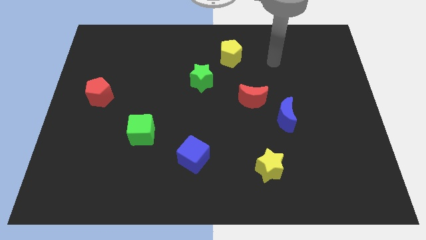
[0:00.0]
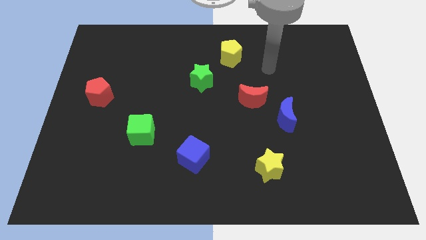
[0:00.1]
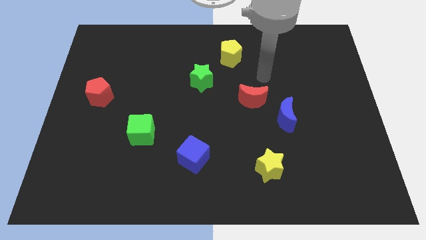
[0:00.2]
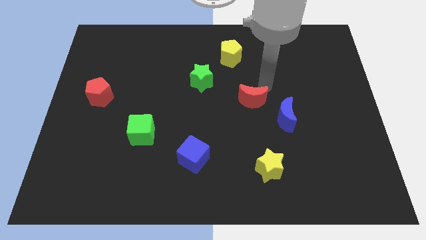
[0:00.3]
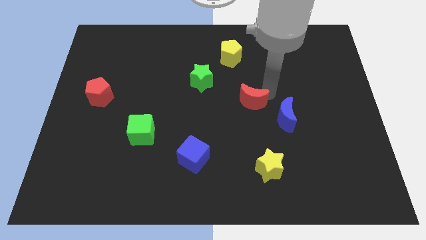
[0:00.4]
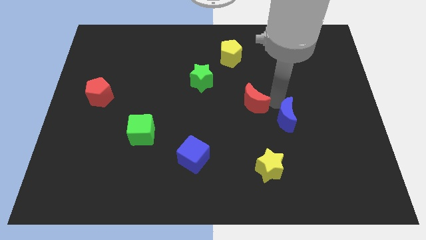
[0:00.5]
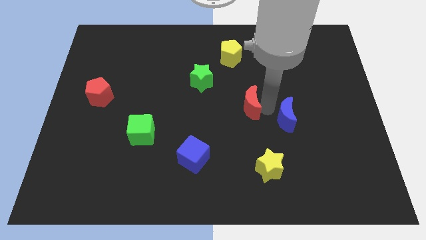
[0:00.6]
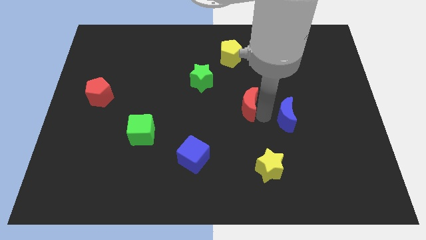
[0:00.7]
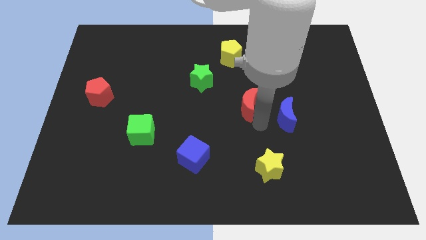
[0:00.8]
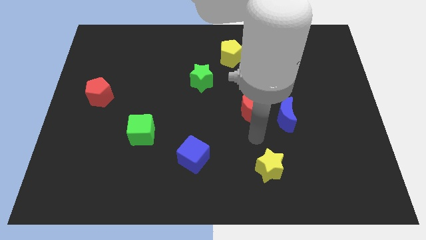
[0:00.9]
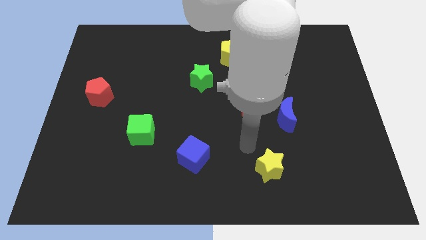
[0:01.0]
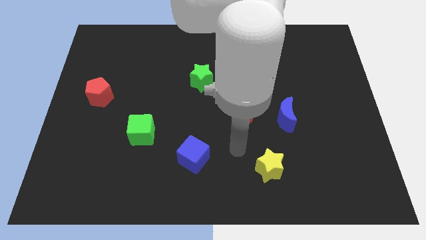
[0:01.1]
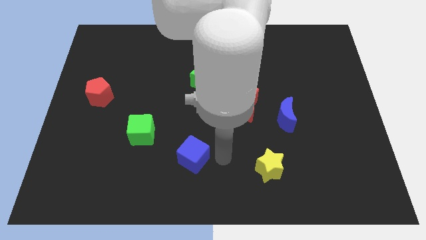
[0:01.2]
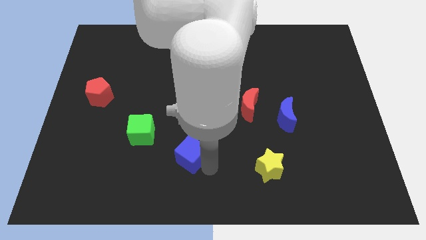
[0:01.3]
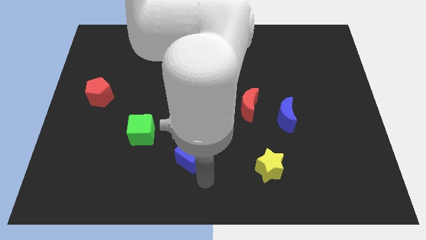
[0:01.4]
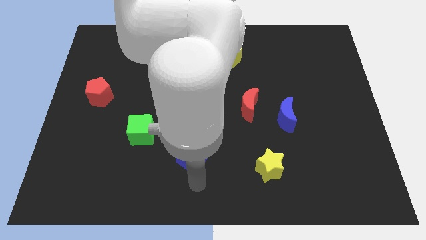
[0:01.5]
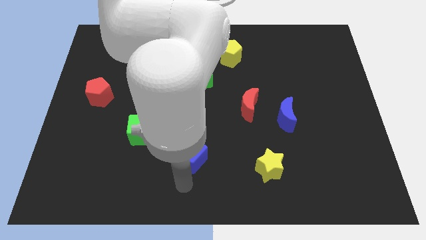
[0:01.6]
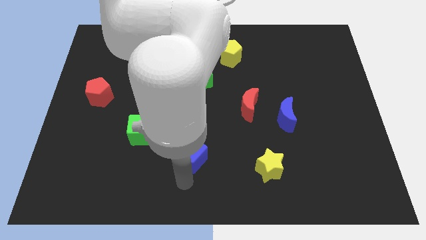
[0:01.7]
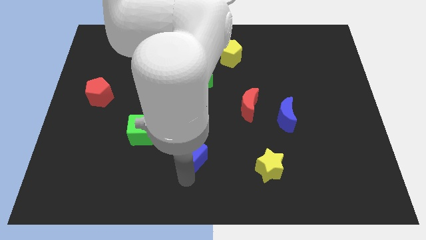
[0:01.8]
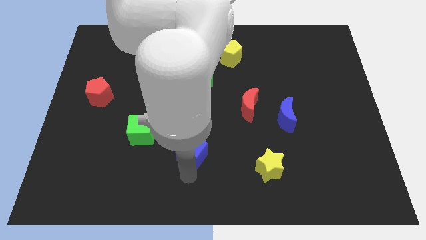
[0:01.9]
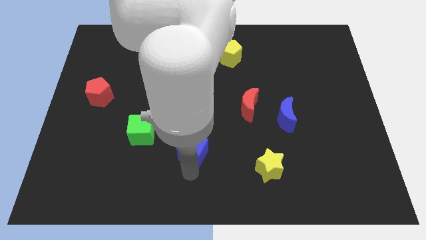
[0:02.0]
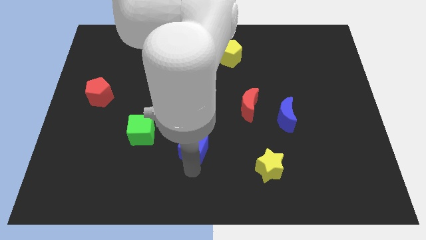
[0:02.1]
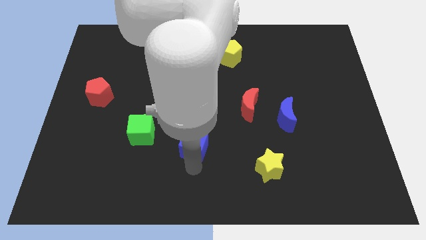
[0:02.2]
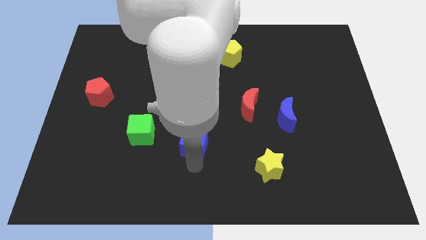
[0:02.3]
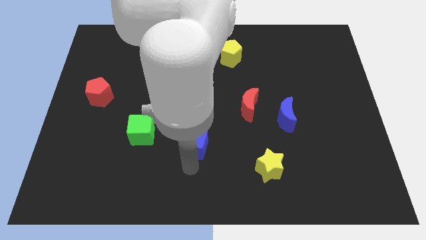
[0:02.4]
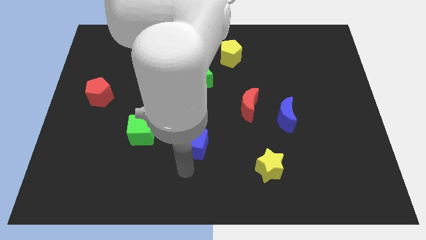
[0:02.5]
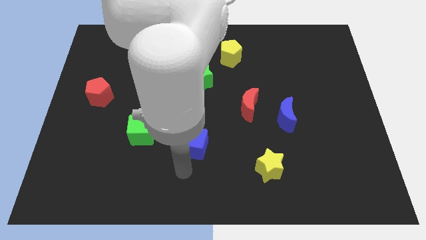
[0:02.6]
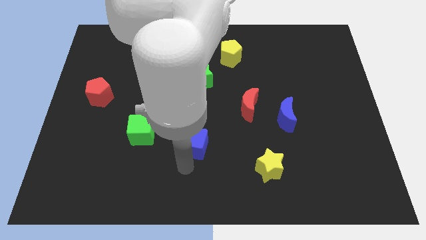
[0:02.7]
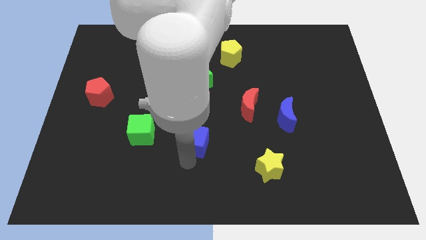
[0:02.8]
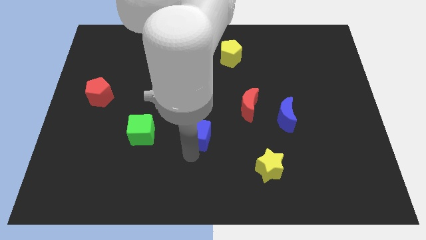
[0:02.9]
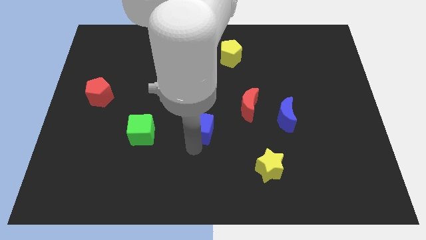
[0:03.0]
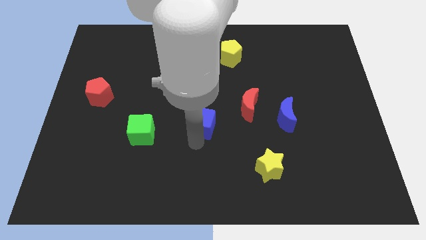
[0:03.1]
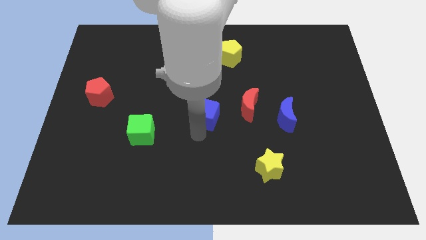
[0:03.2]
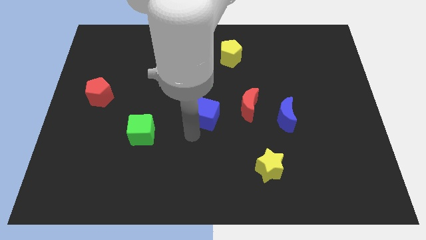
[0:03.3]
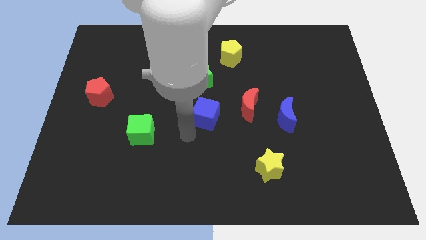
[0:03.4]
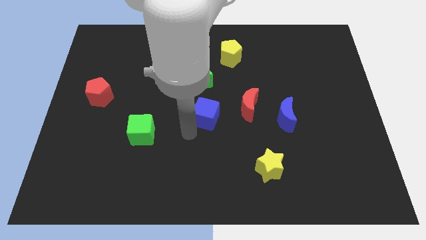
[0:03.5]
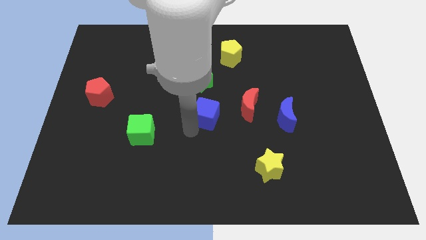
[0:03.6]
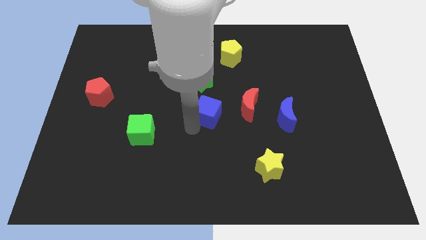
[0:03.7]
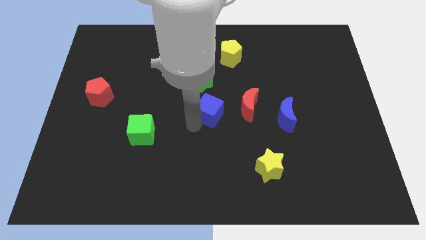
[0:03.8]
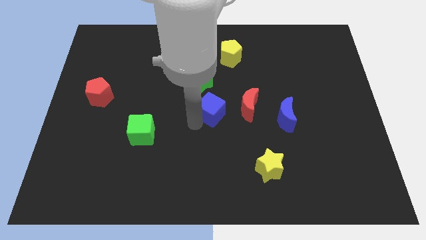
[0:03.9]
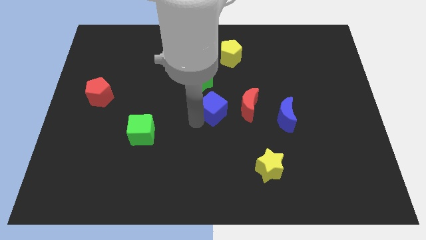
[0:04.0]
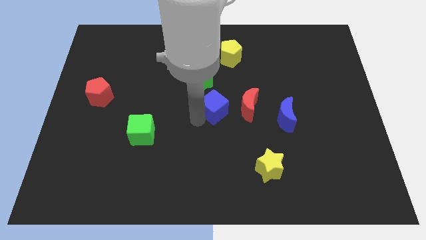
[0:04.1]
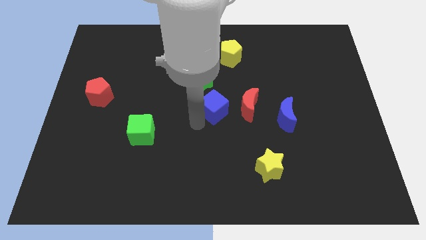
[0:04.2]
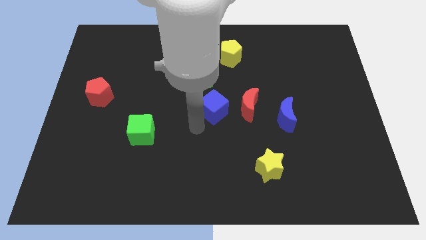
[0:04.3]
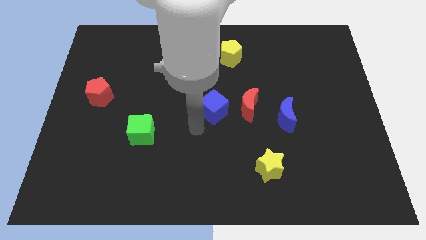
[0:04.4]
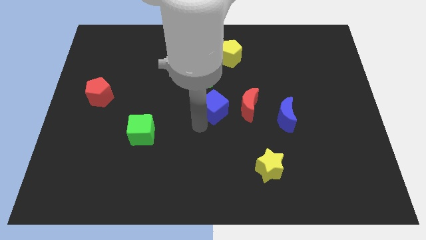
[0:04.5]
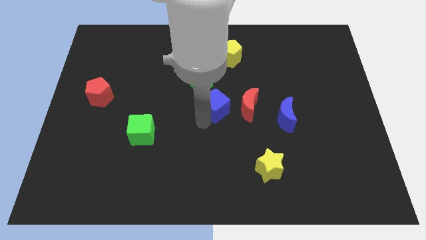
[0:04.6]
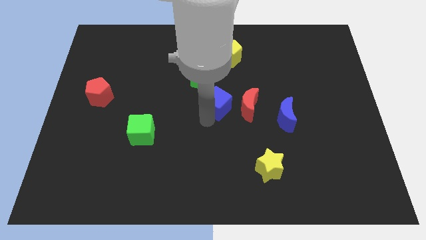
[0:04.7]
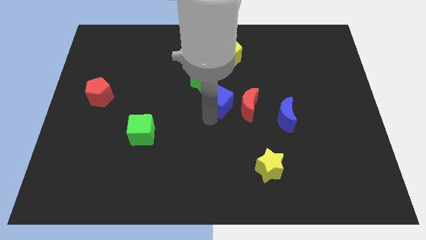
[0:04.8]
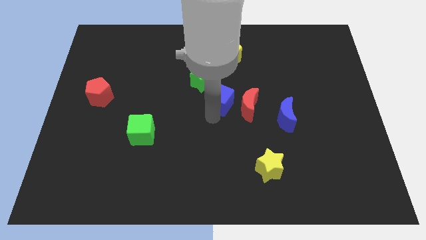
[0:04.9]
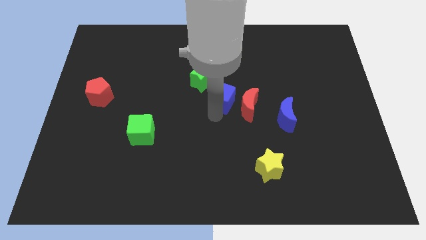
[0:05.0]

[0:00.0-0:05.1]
put the blue cube to the bottom side of the yellow pentagon

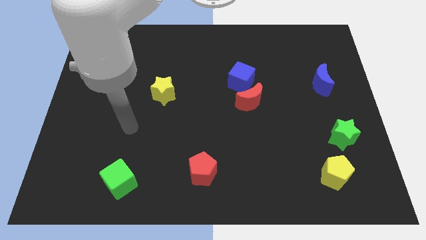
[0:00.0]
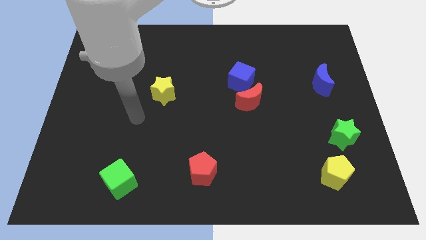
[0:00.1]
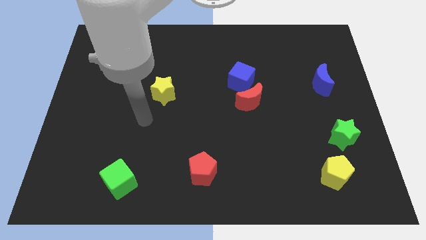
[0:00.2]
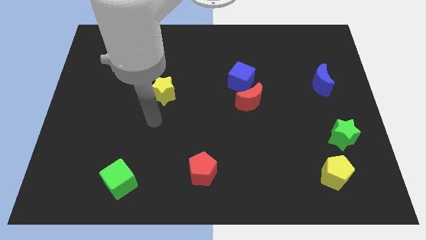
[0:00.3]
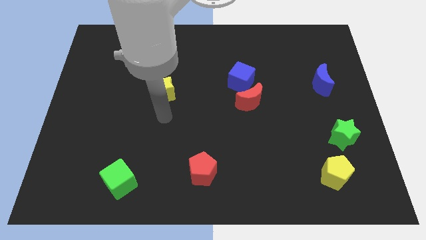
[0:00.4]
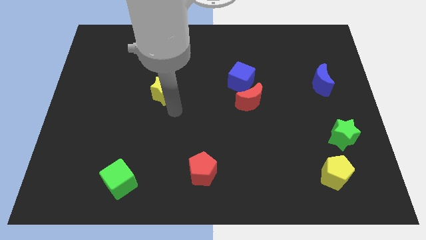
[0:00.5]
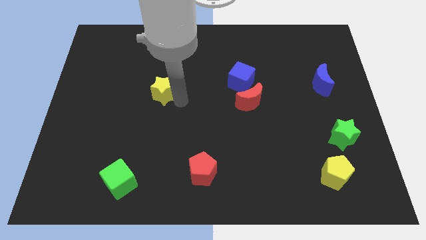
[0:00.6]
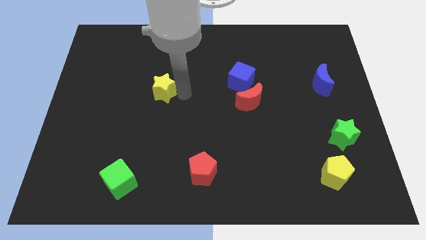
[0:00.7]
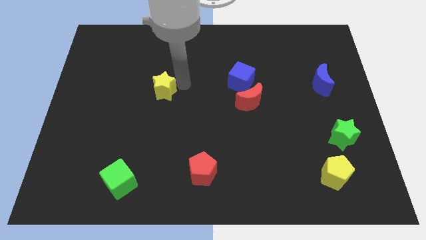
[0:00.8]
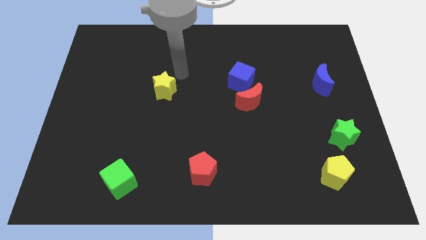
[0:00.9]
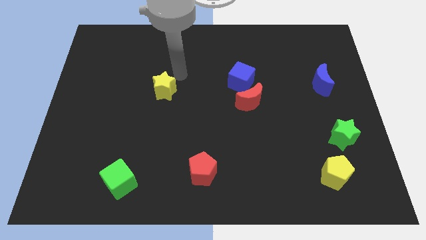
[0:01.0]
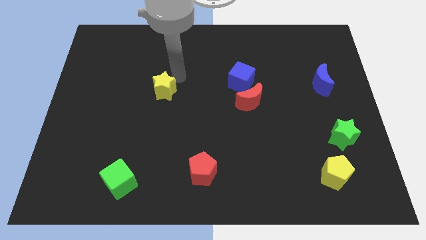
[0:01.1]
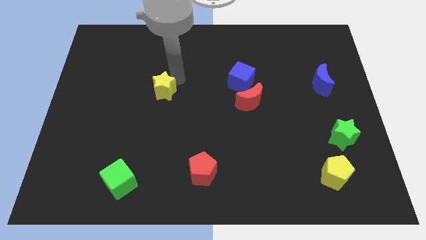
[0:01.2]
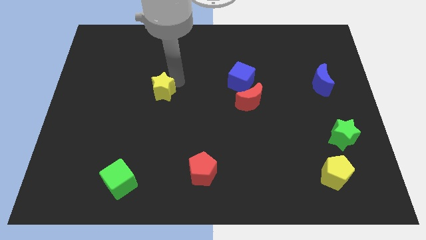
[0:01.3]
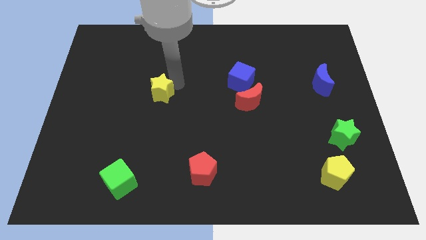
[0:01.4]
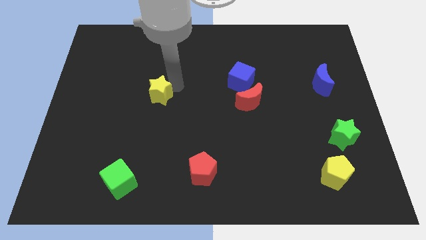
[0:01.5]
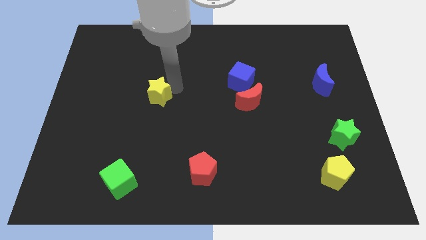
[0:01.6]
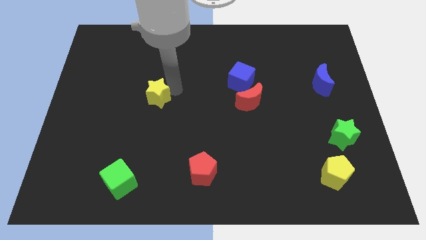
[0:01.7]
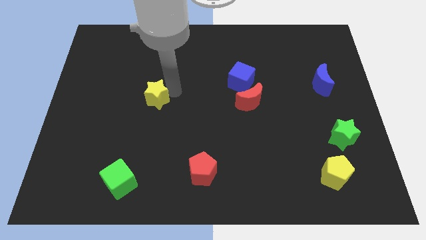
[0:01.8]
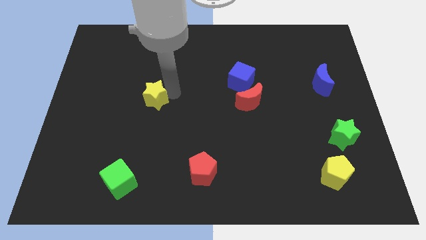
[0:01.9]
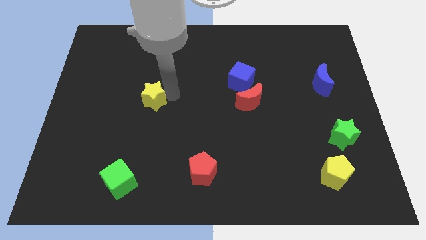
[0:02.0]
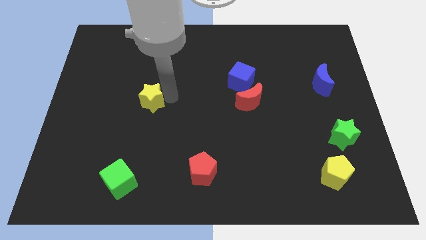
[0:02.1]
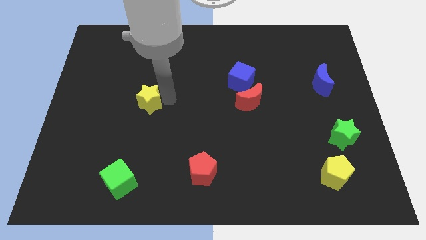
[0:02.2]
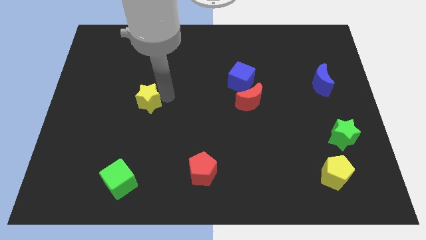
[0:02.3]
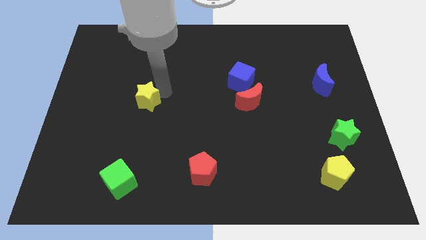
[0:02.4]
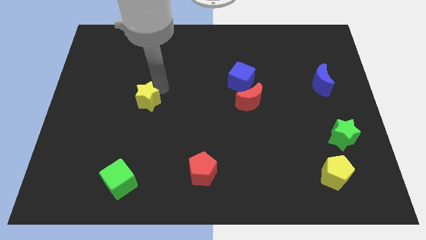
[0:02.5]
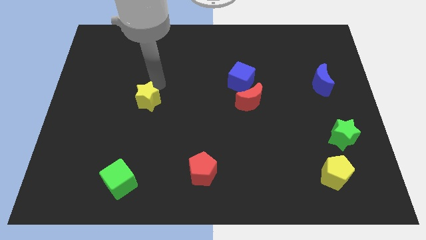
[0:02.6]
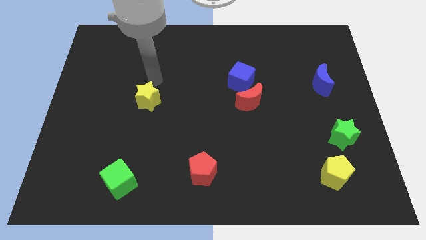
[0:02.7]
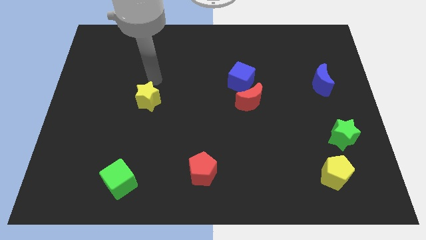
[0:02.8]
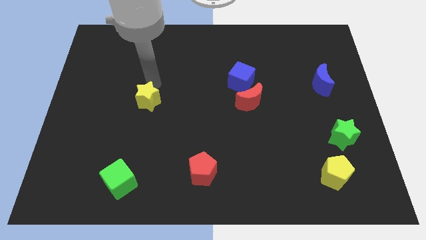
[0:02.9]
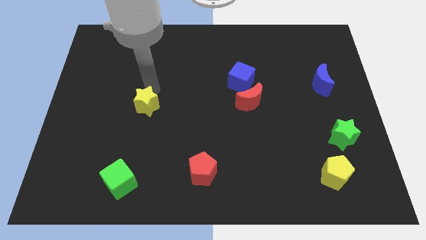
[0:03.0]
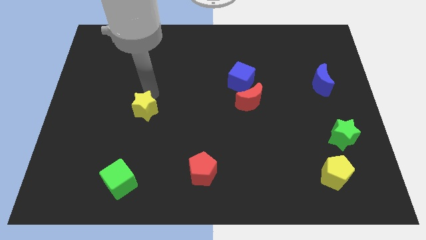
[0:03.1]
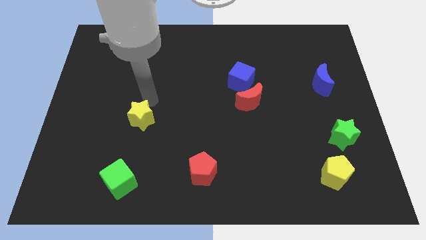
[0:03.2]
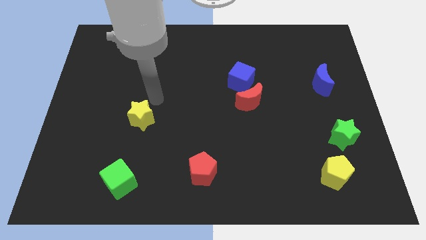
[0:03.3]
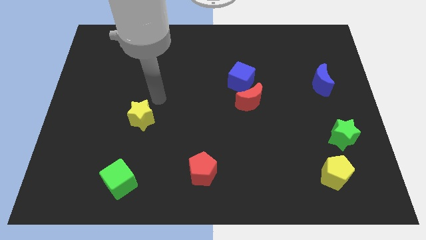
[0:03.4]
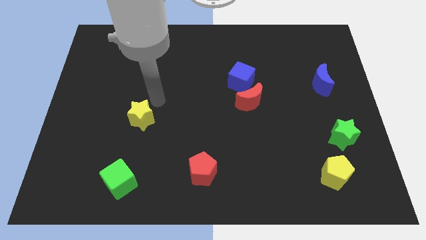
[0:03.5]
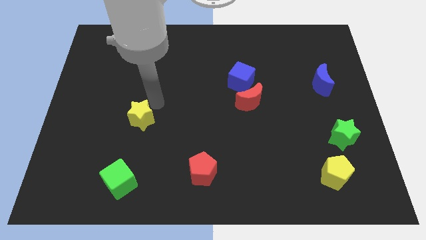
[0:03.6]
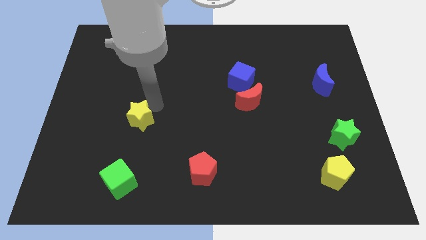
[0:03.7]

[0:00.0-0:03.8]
put the yellow star to the top side of the green cube
